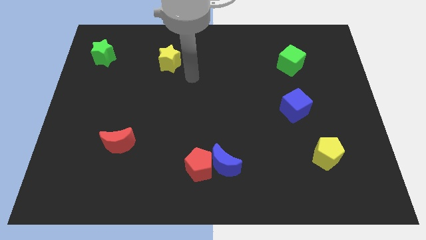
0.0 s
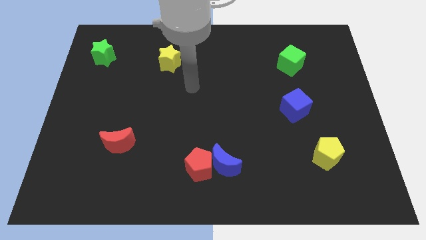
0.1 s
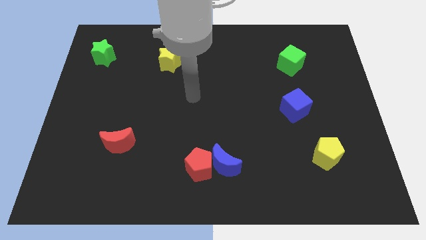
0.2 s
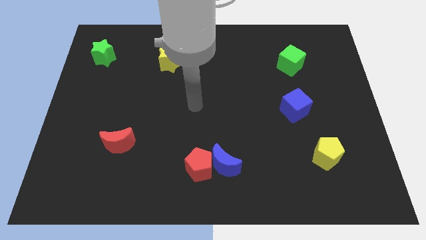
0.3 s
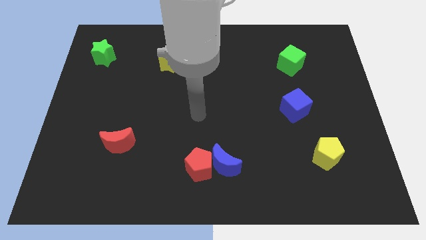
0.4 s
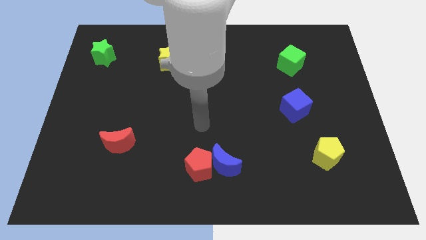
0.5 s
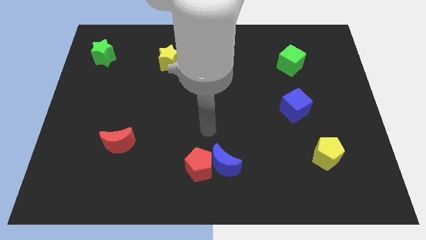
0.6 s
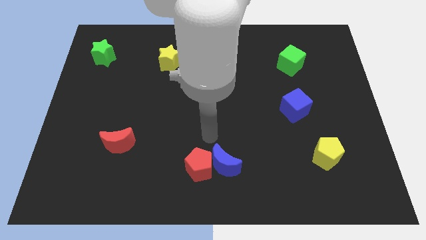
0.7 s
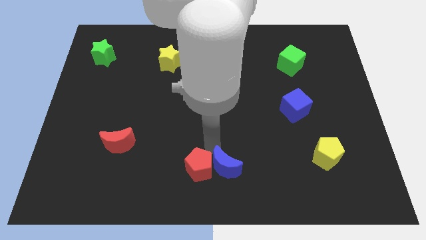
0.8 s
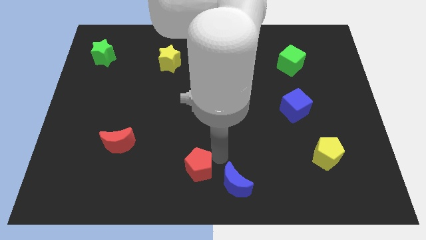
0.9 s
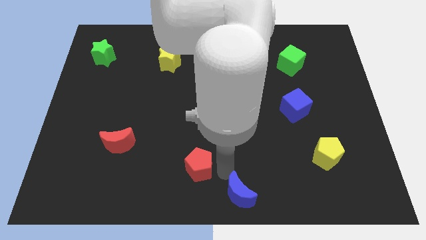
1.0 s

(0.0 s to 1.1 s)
separate the red pentagon from the blue moon

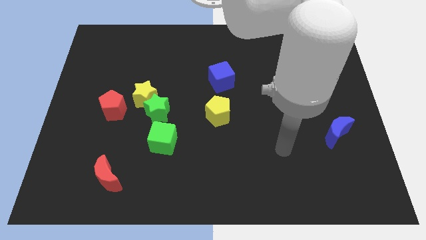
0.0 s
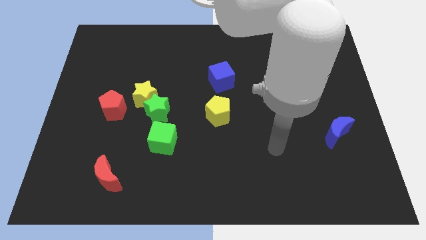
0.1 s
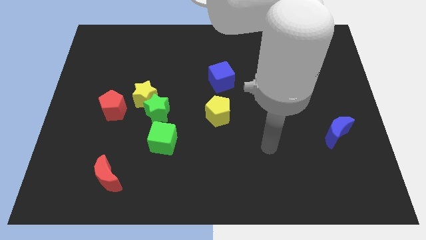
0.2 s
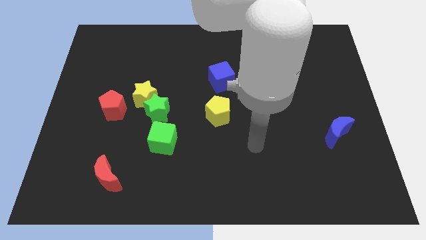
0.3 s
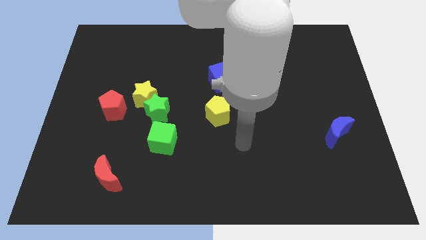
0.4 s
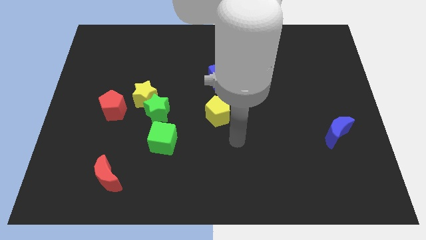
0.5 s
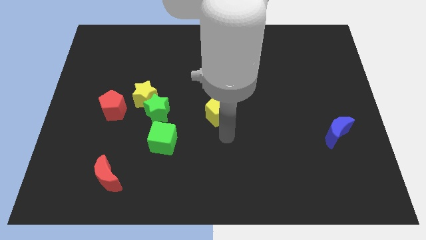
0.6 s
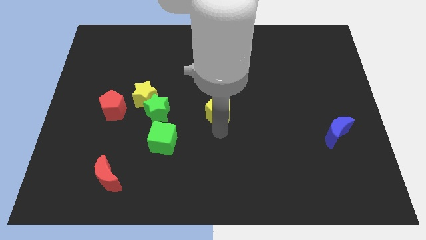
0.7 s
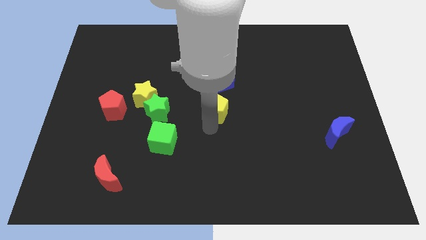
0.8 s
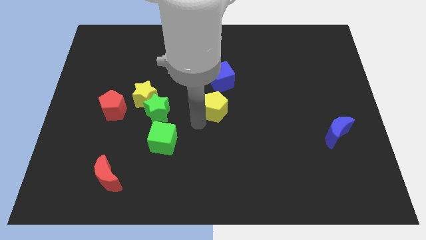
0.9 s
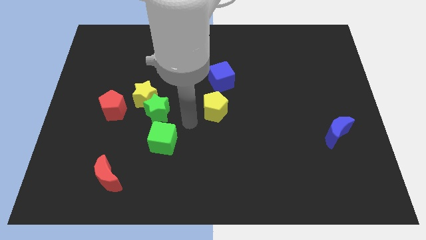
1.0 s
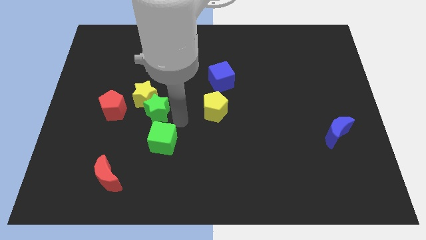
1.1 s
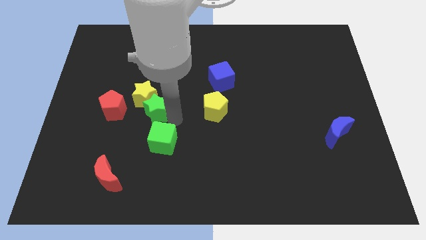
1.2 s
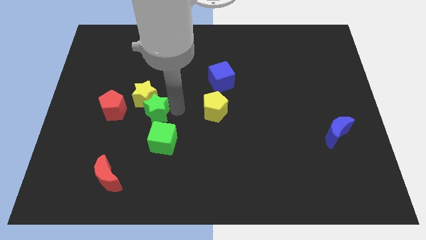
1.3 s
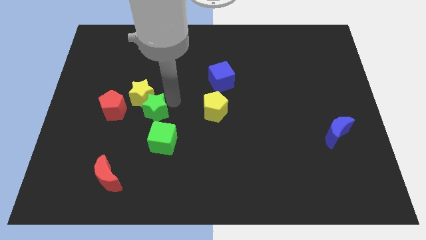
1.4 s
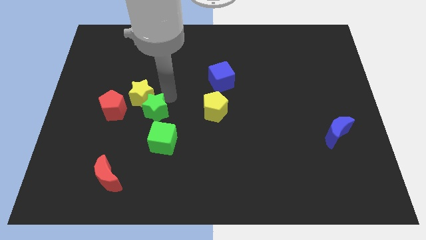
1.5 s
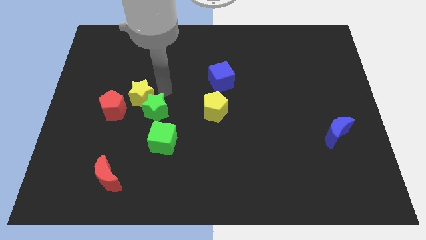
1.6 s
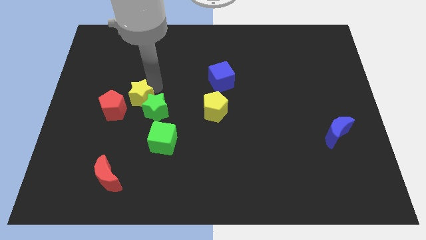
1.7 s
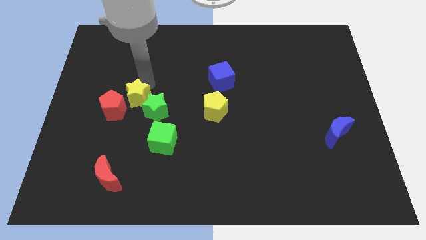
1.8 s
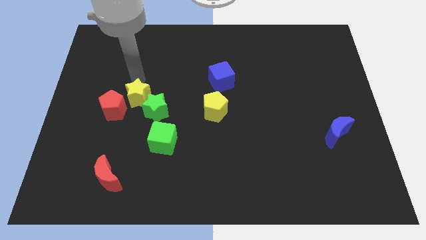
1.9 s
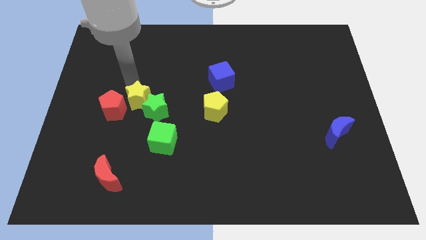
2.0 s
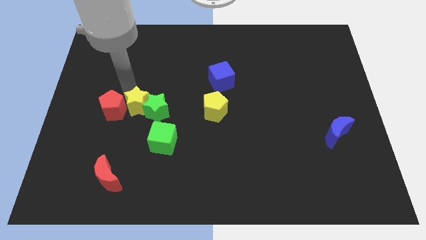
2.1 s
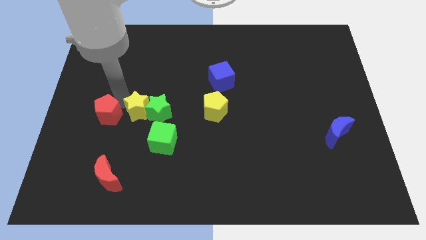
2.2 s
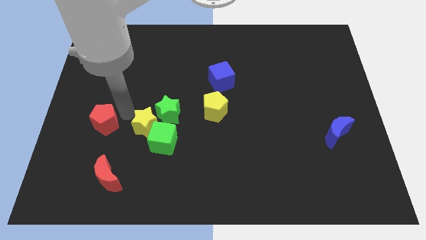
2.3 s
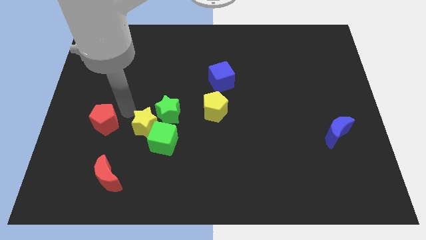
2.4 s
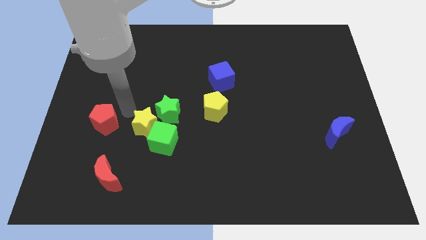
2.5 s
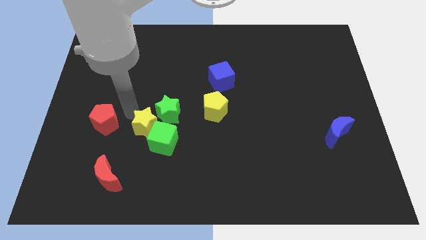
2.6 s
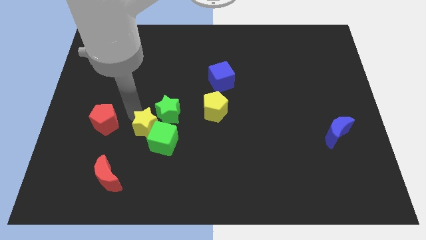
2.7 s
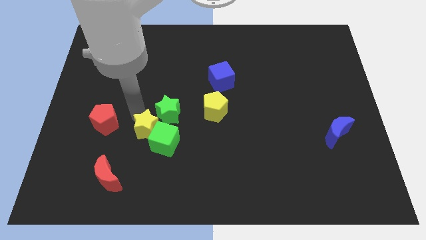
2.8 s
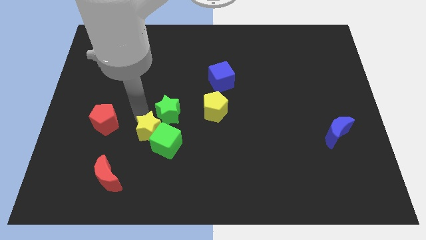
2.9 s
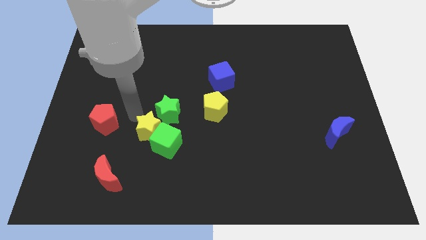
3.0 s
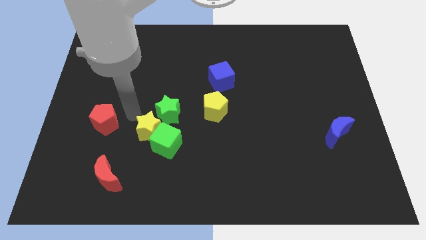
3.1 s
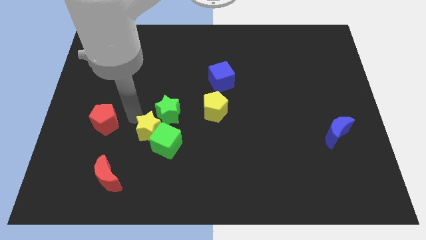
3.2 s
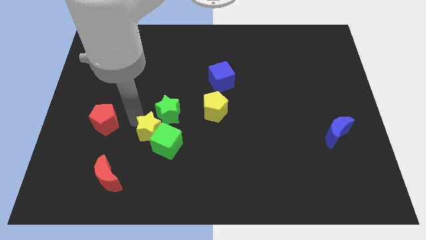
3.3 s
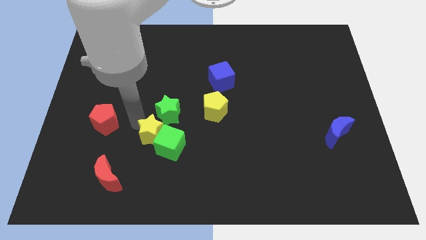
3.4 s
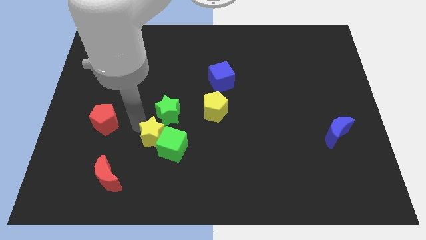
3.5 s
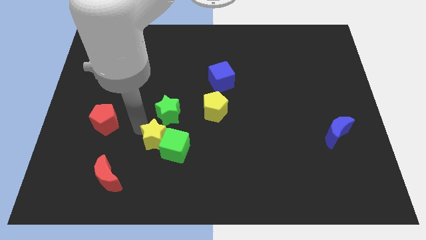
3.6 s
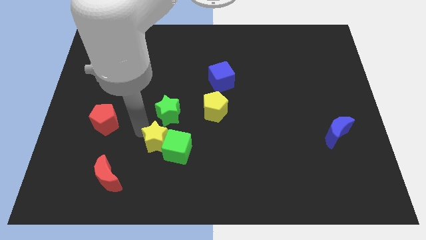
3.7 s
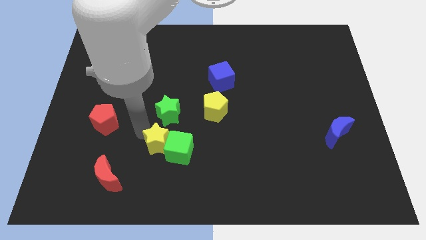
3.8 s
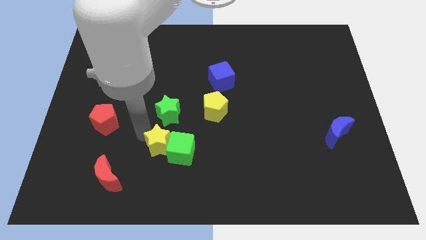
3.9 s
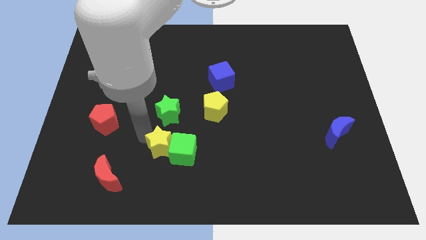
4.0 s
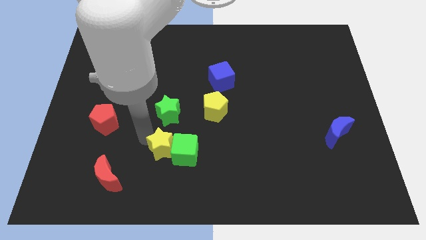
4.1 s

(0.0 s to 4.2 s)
separate the yellow star from the green star and red pentagon

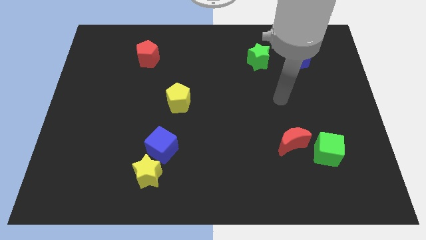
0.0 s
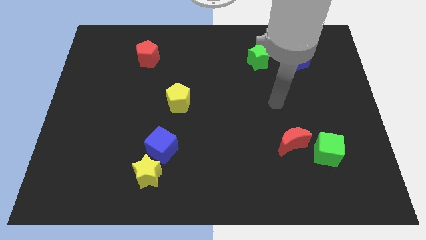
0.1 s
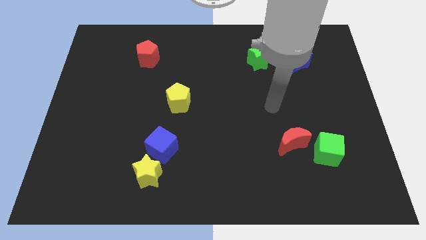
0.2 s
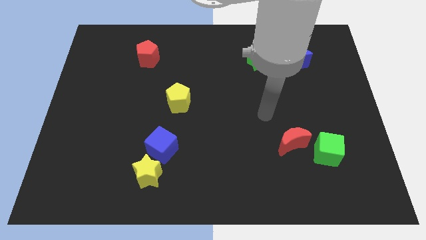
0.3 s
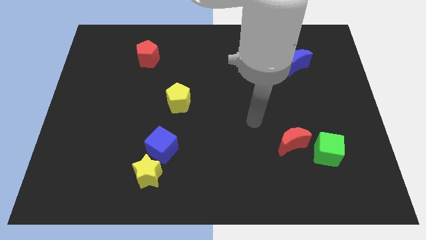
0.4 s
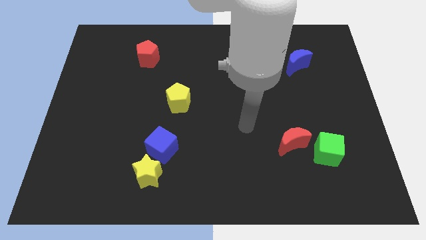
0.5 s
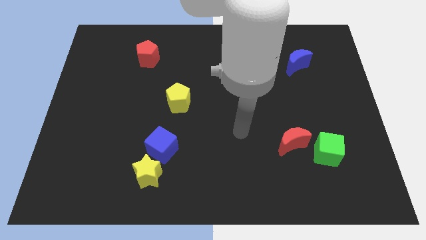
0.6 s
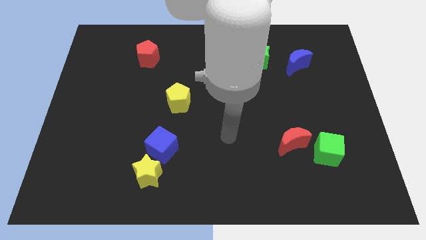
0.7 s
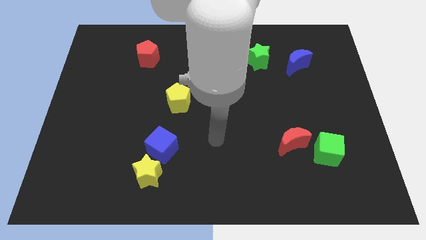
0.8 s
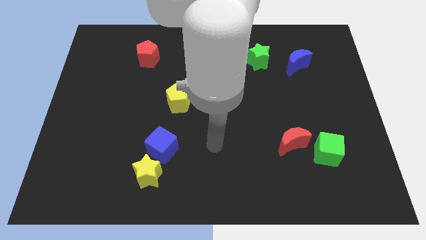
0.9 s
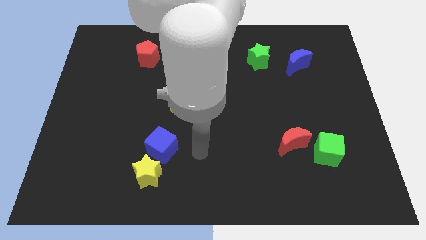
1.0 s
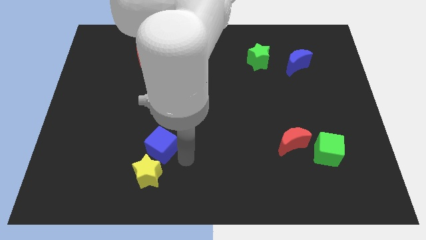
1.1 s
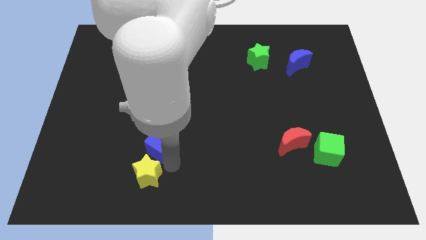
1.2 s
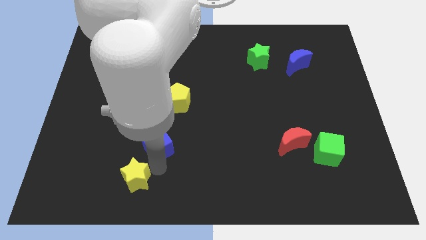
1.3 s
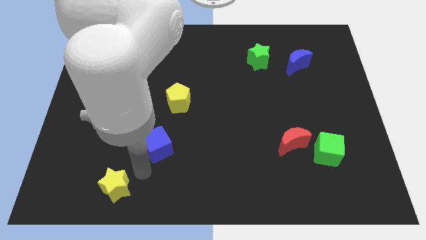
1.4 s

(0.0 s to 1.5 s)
pull the blue cube apart from the yellow star

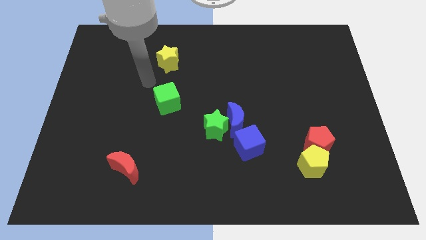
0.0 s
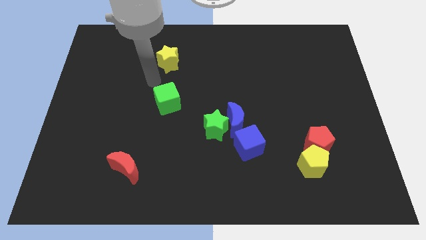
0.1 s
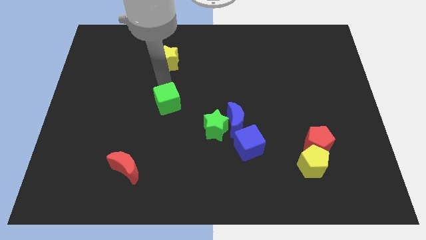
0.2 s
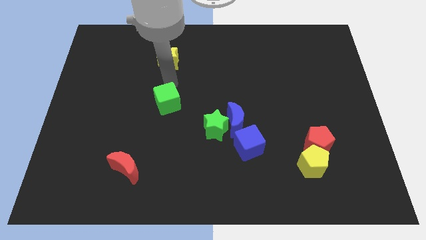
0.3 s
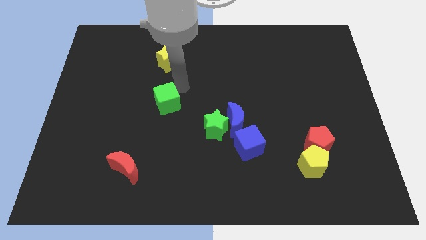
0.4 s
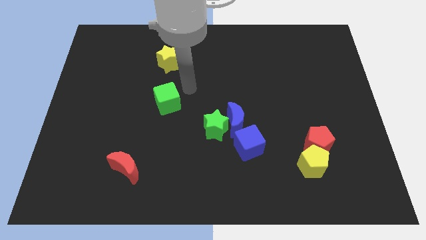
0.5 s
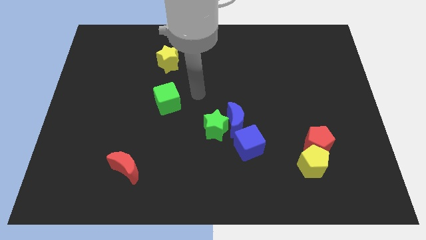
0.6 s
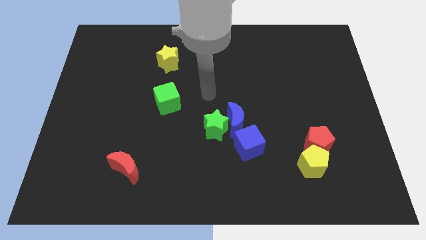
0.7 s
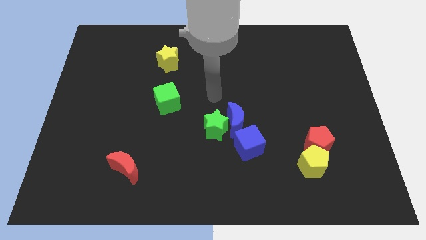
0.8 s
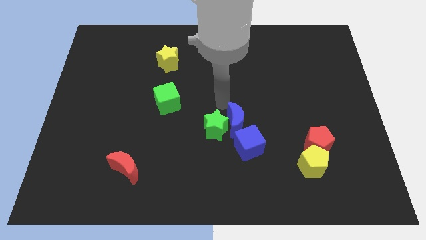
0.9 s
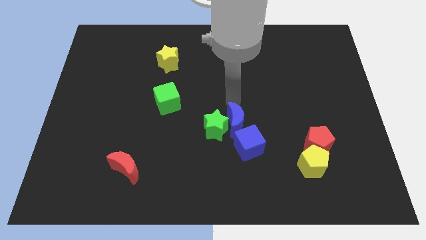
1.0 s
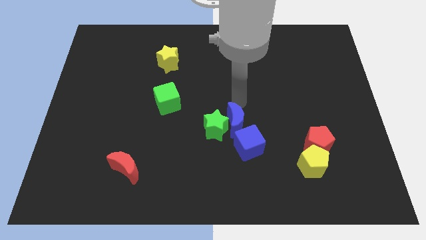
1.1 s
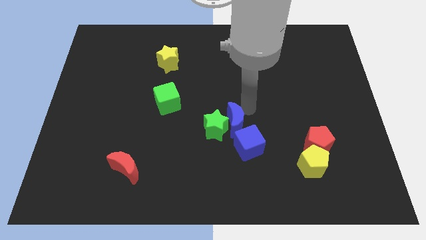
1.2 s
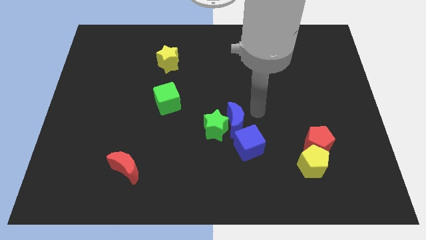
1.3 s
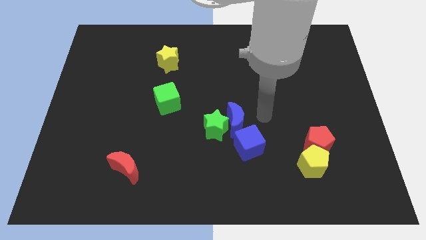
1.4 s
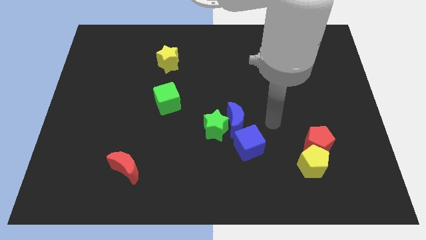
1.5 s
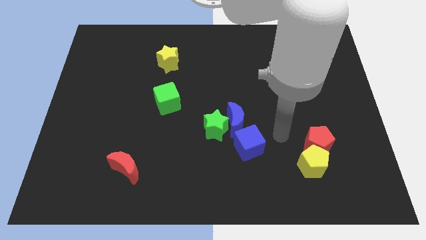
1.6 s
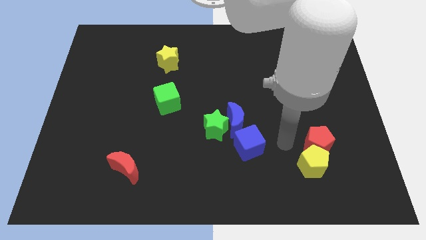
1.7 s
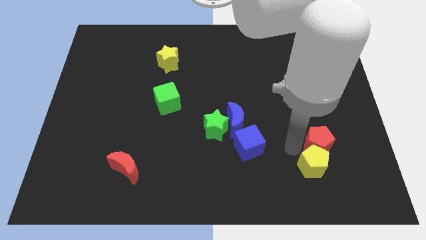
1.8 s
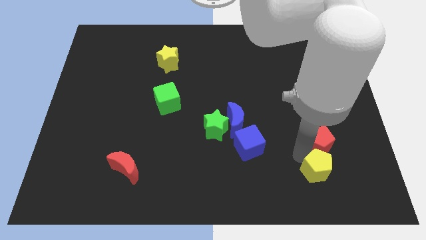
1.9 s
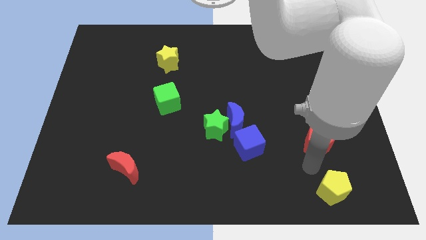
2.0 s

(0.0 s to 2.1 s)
separate the red pentagon from the yellow pentagon

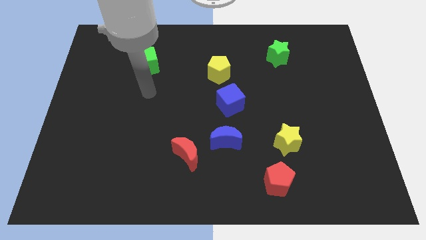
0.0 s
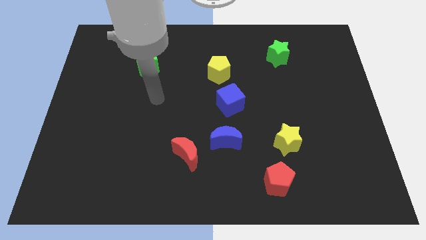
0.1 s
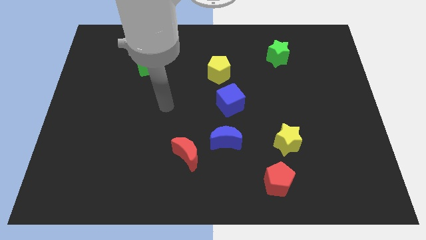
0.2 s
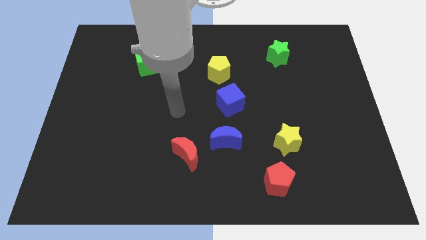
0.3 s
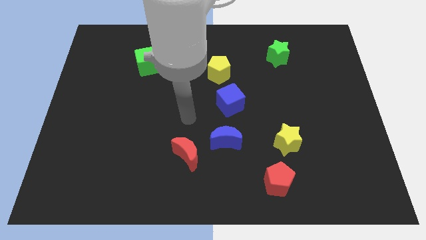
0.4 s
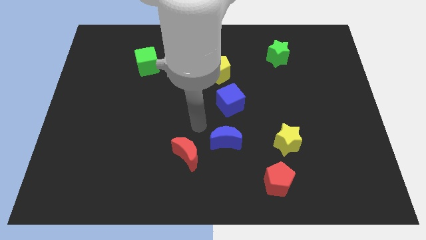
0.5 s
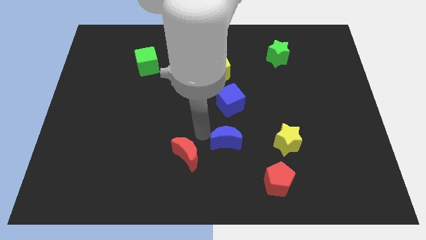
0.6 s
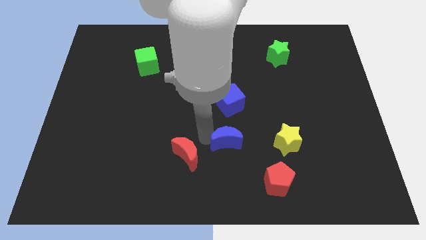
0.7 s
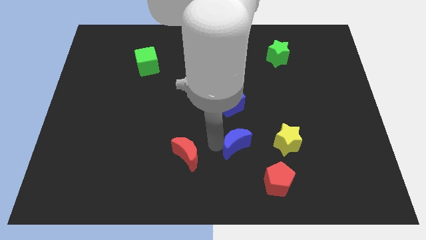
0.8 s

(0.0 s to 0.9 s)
pull the red moon apart from the blue moon
